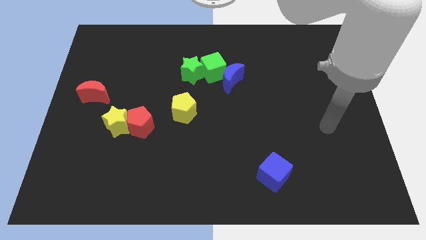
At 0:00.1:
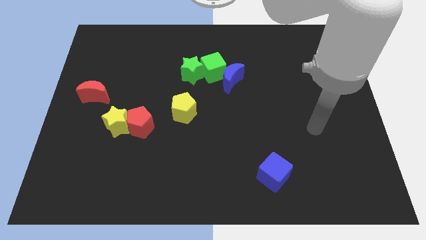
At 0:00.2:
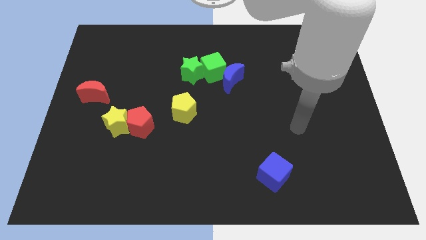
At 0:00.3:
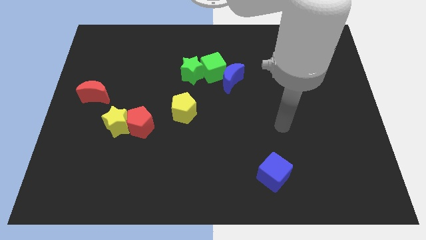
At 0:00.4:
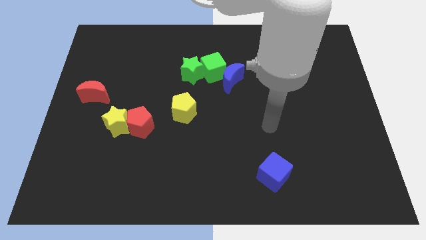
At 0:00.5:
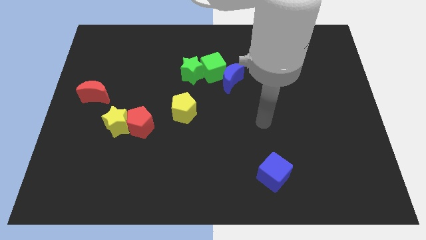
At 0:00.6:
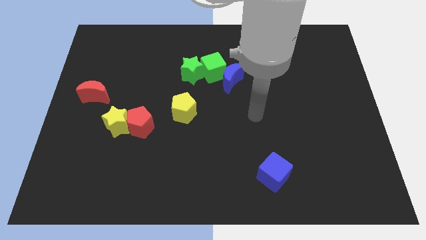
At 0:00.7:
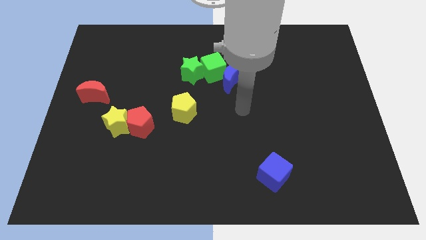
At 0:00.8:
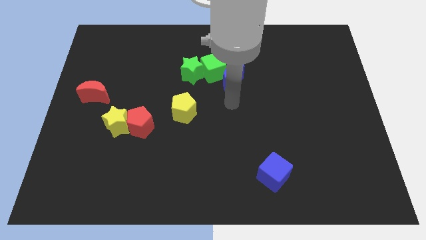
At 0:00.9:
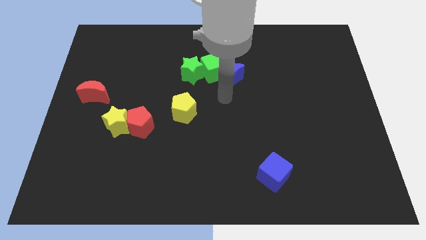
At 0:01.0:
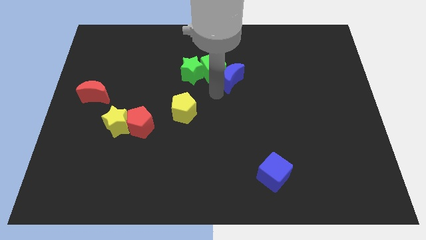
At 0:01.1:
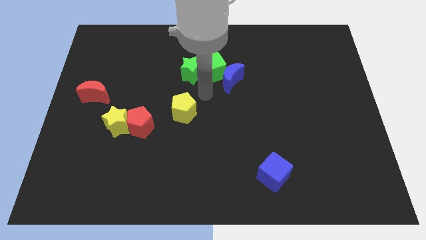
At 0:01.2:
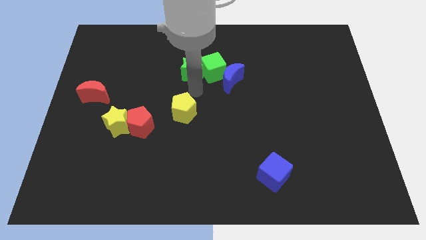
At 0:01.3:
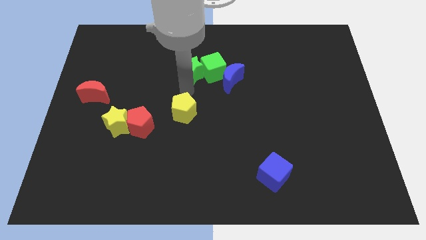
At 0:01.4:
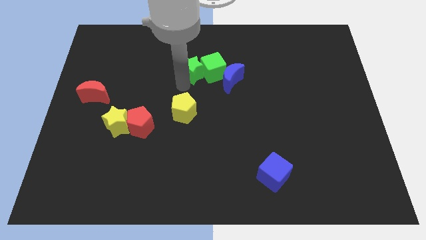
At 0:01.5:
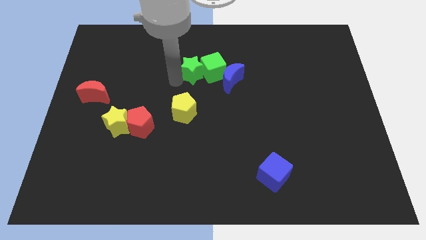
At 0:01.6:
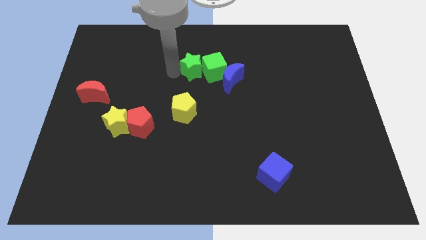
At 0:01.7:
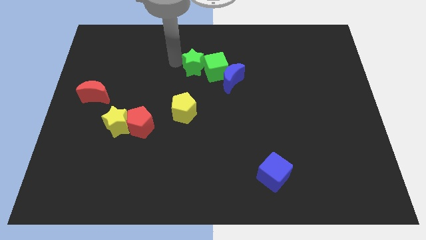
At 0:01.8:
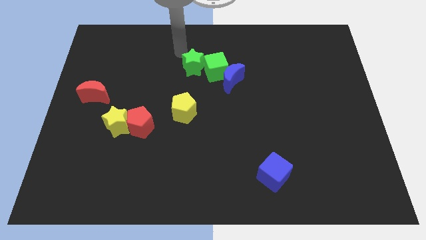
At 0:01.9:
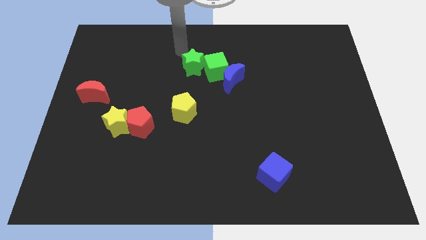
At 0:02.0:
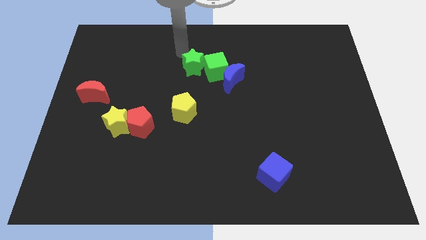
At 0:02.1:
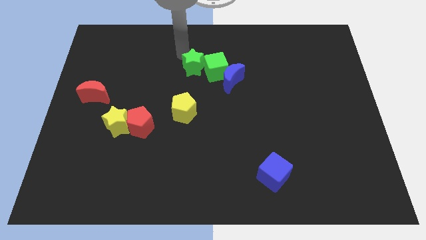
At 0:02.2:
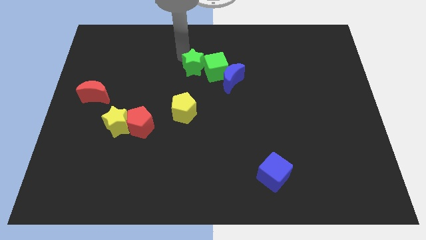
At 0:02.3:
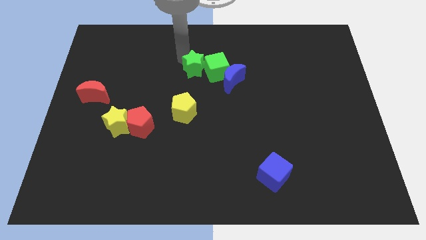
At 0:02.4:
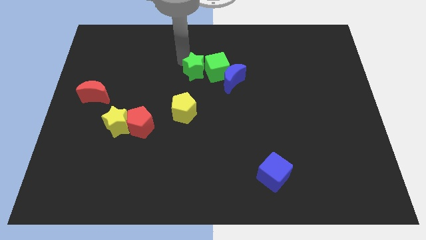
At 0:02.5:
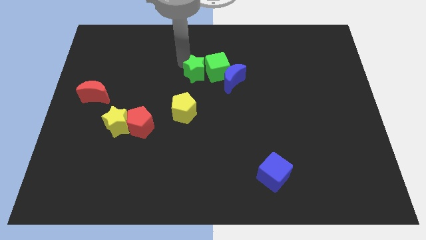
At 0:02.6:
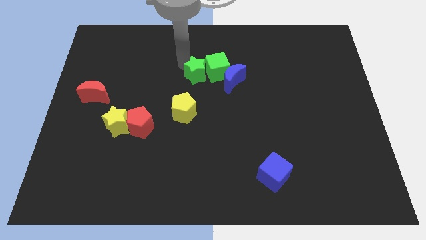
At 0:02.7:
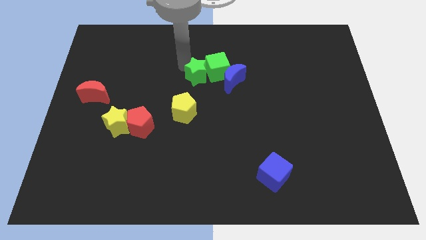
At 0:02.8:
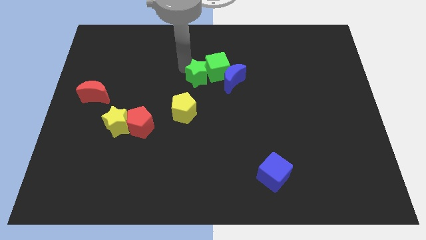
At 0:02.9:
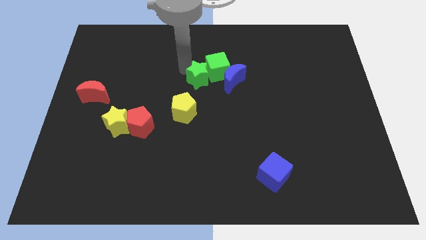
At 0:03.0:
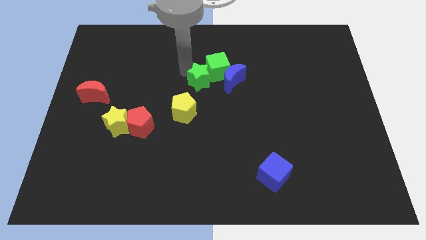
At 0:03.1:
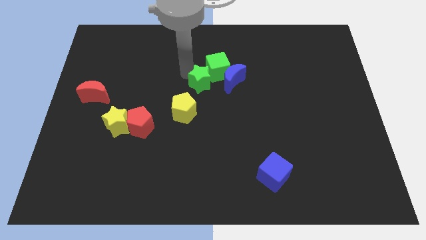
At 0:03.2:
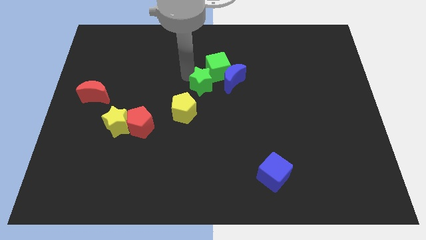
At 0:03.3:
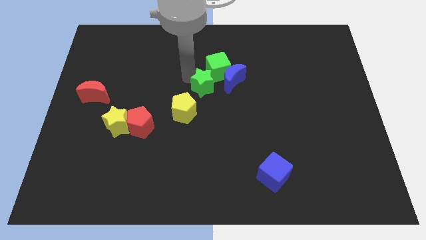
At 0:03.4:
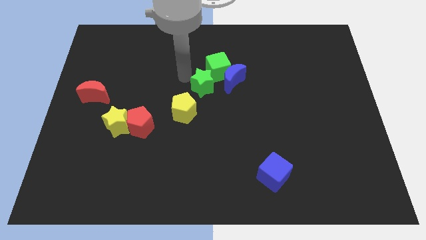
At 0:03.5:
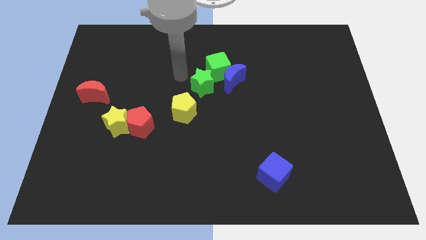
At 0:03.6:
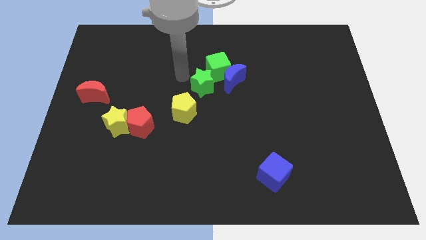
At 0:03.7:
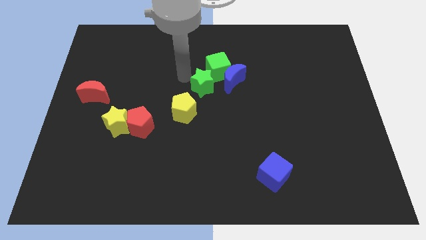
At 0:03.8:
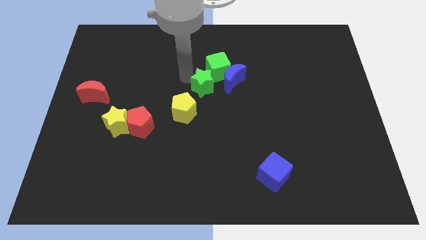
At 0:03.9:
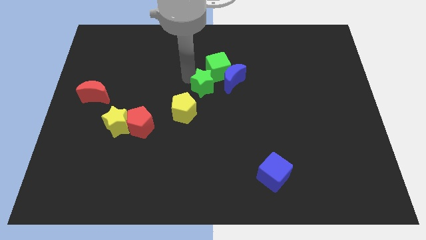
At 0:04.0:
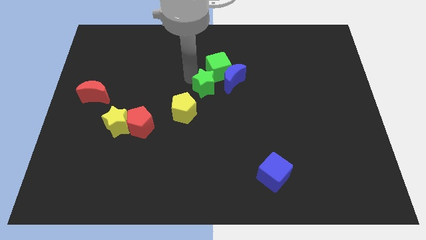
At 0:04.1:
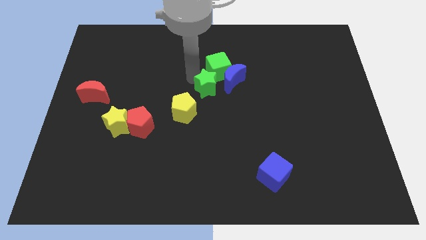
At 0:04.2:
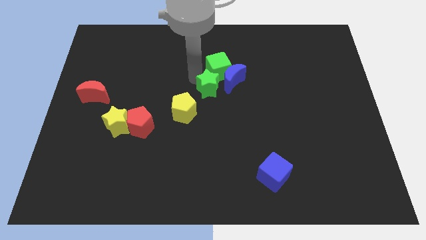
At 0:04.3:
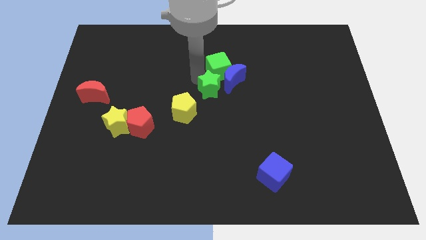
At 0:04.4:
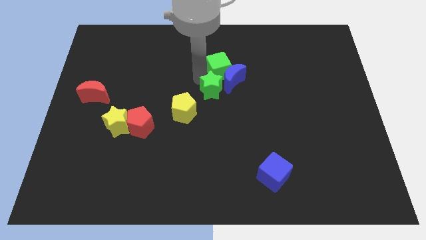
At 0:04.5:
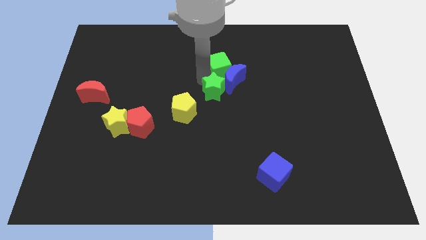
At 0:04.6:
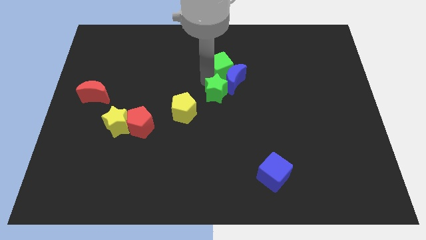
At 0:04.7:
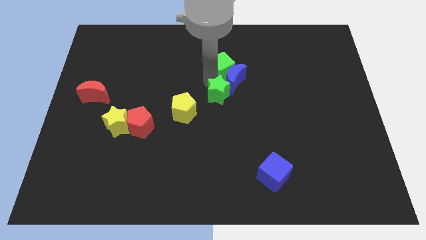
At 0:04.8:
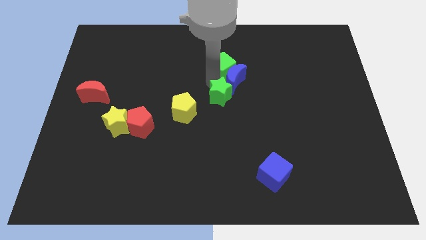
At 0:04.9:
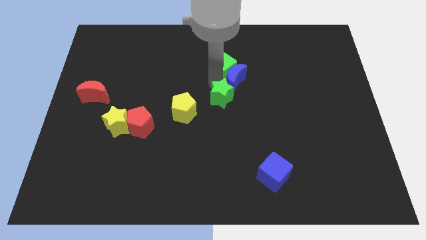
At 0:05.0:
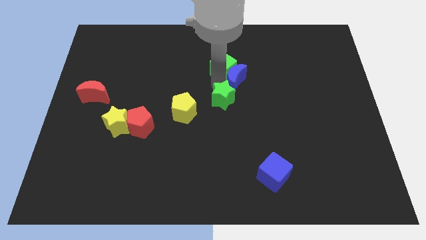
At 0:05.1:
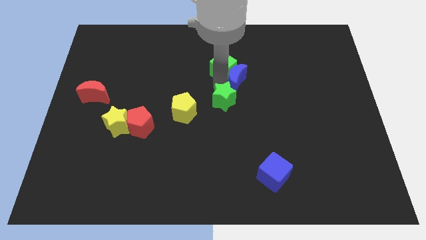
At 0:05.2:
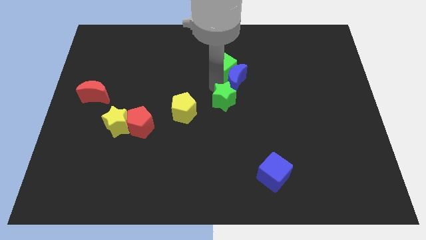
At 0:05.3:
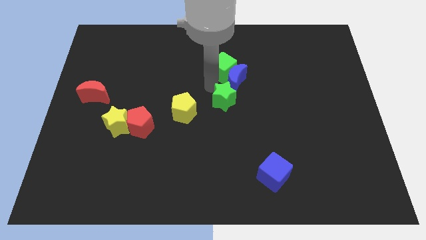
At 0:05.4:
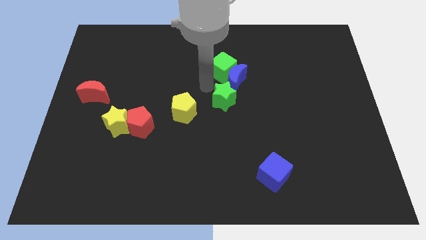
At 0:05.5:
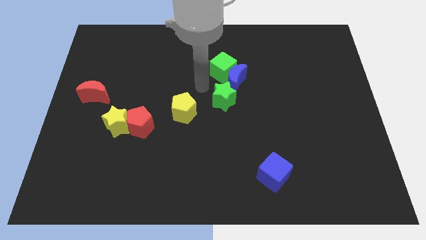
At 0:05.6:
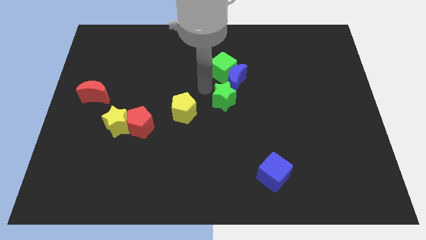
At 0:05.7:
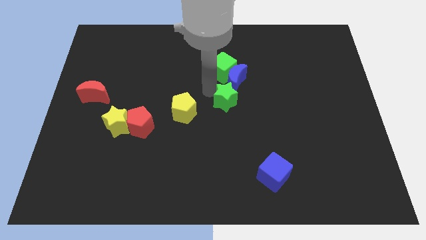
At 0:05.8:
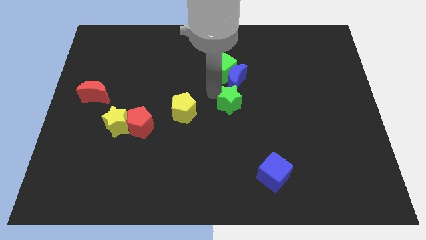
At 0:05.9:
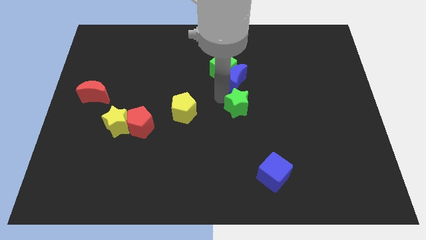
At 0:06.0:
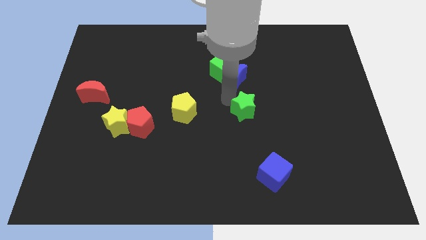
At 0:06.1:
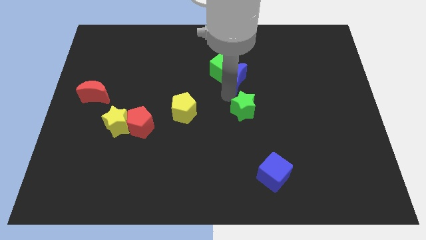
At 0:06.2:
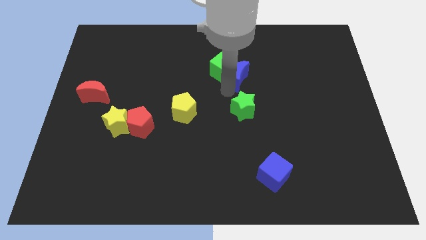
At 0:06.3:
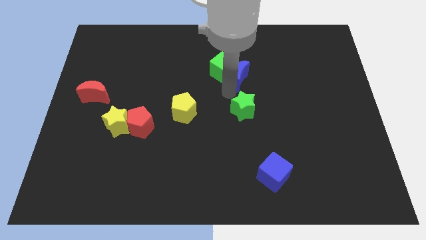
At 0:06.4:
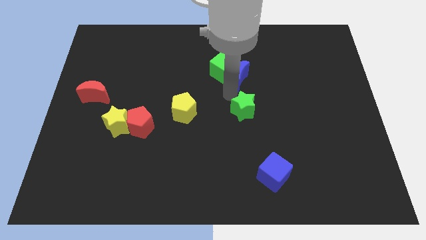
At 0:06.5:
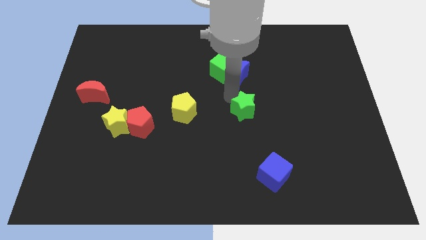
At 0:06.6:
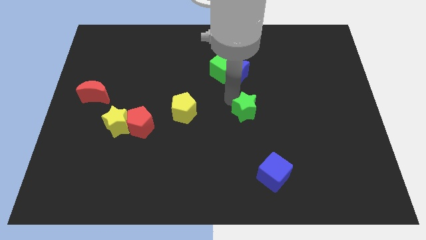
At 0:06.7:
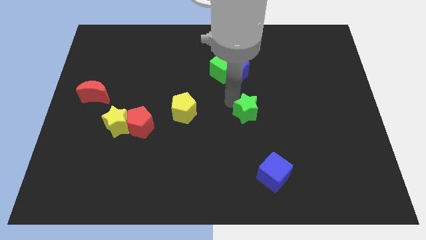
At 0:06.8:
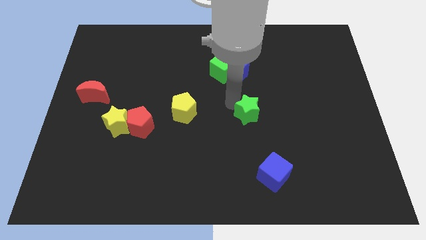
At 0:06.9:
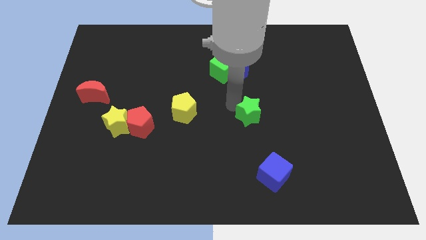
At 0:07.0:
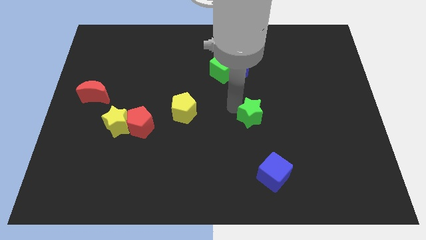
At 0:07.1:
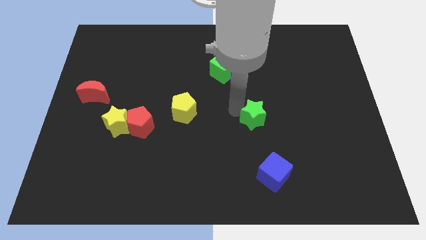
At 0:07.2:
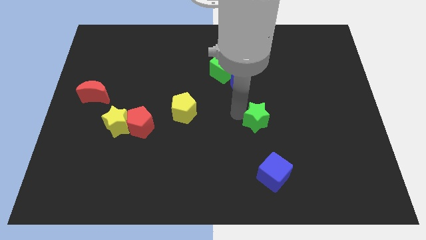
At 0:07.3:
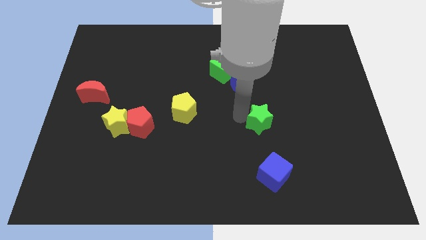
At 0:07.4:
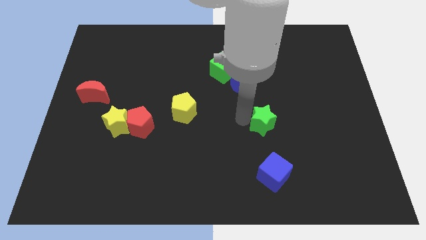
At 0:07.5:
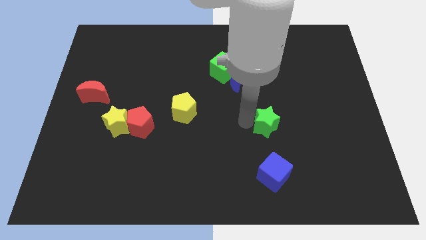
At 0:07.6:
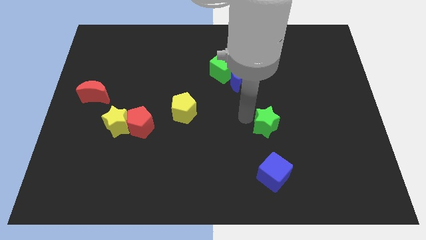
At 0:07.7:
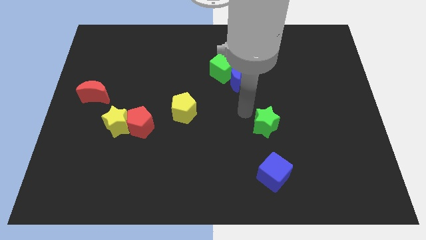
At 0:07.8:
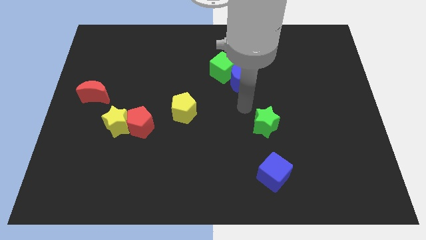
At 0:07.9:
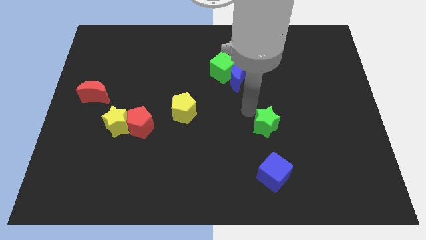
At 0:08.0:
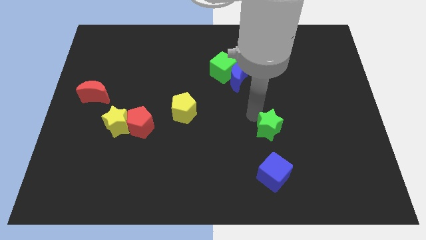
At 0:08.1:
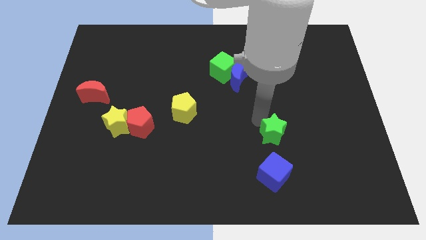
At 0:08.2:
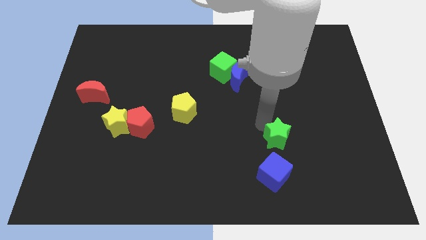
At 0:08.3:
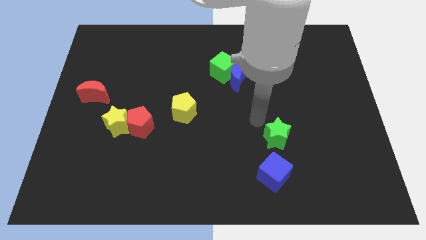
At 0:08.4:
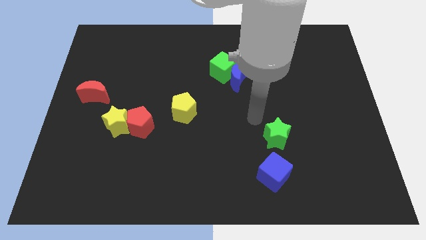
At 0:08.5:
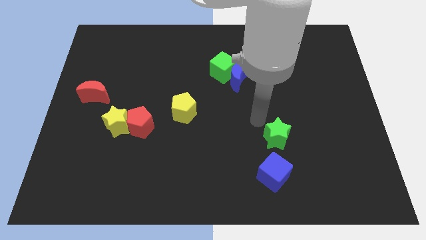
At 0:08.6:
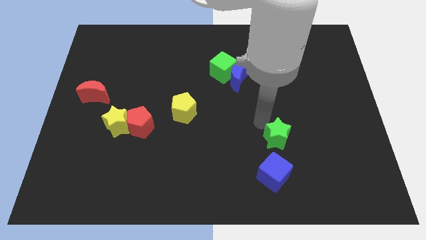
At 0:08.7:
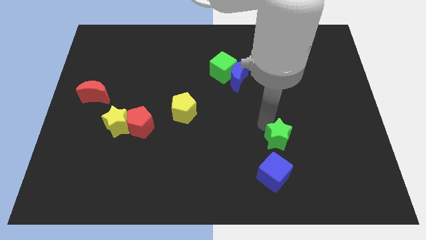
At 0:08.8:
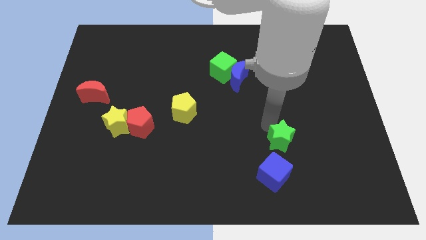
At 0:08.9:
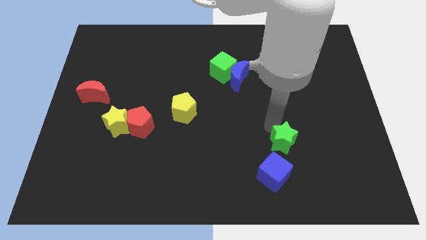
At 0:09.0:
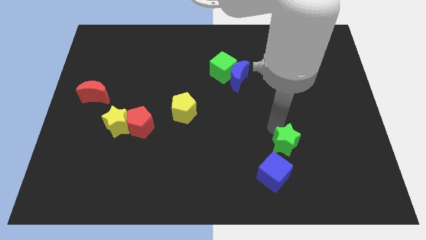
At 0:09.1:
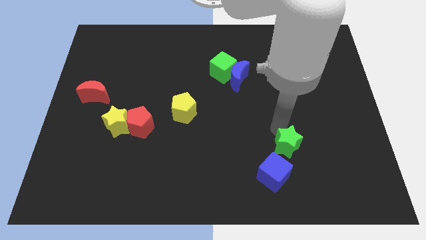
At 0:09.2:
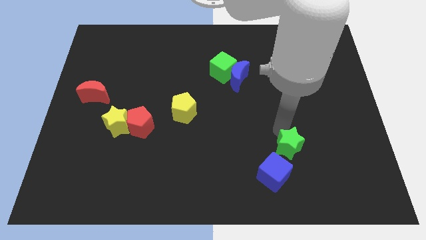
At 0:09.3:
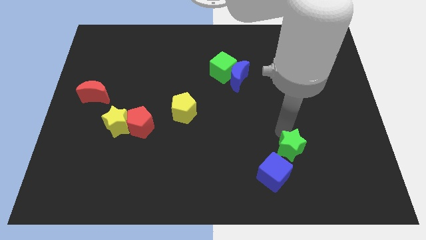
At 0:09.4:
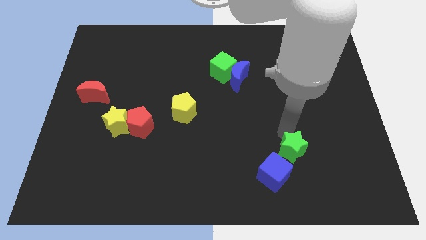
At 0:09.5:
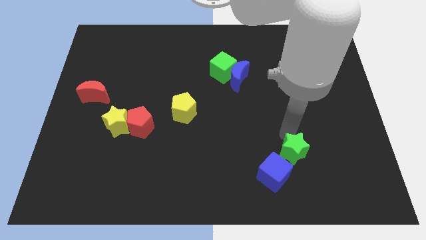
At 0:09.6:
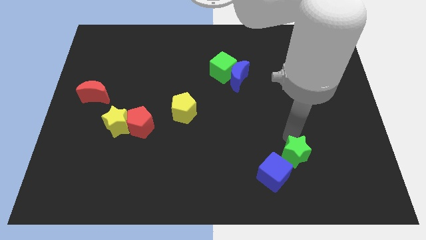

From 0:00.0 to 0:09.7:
push the green star right of the blue cube
